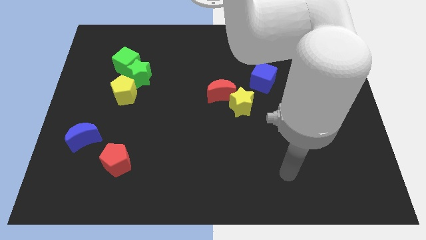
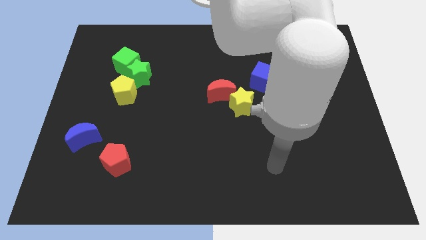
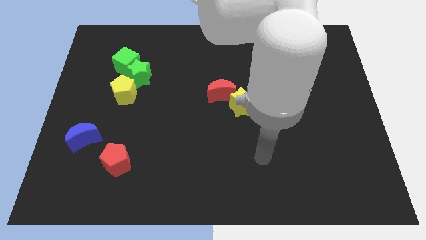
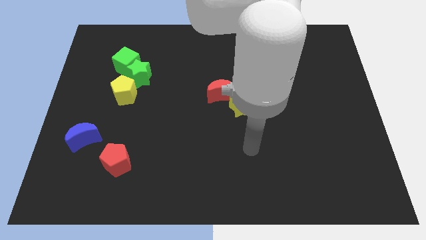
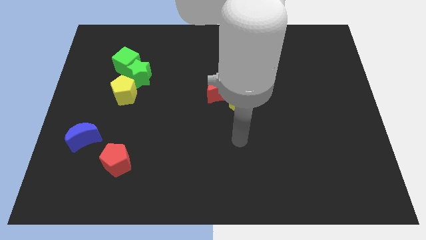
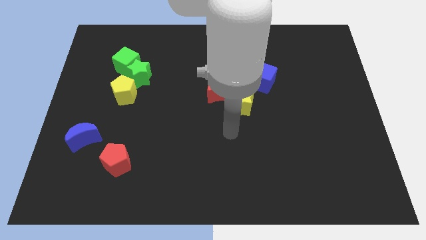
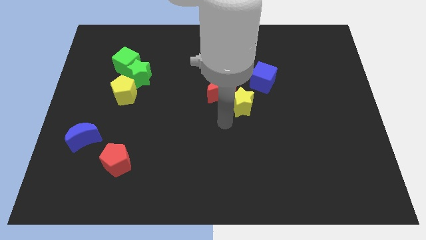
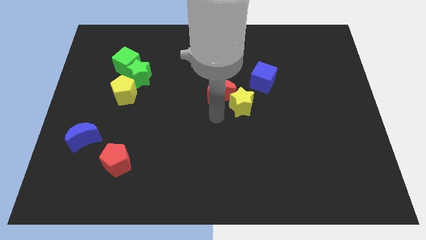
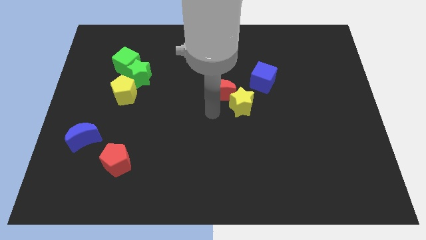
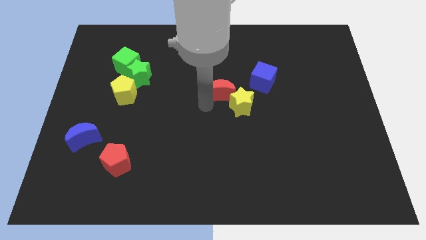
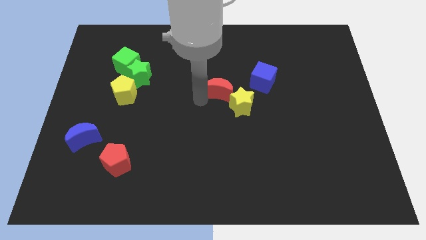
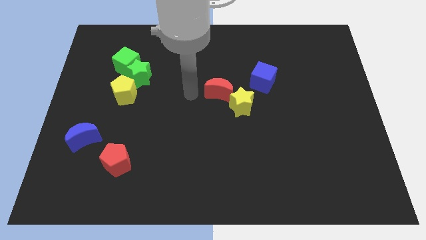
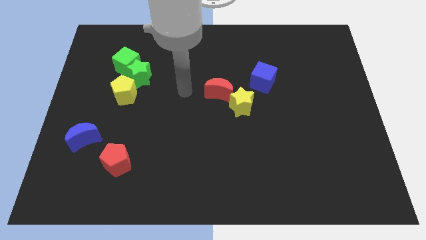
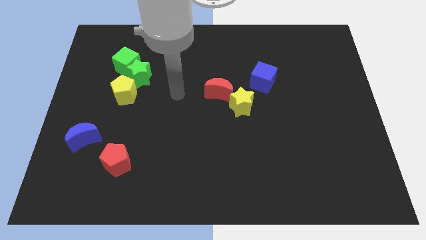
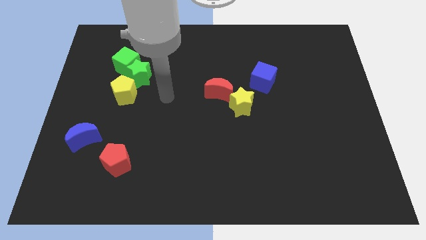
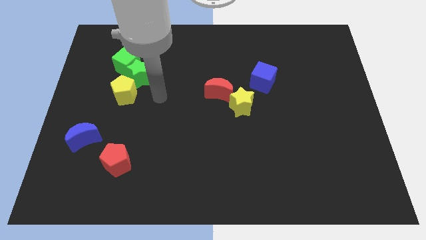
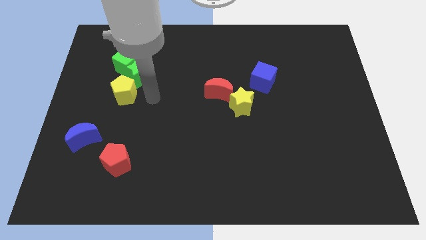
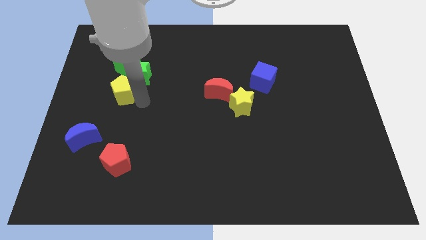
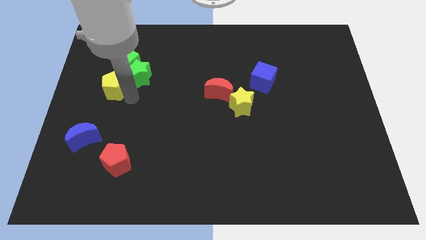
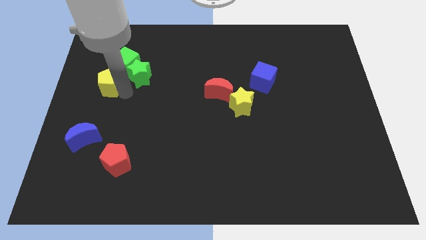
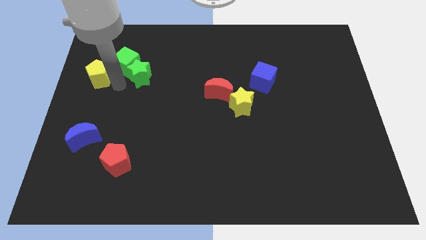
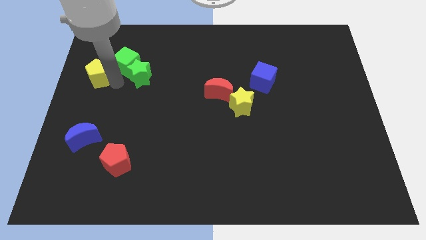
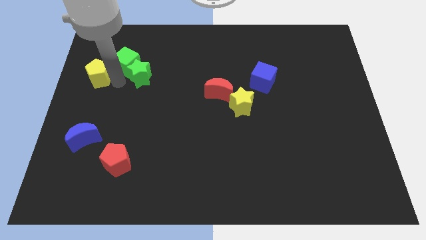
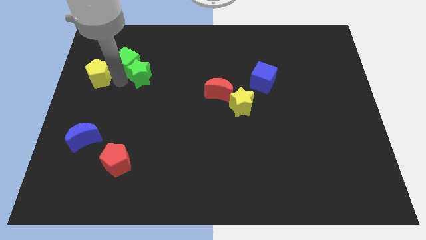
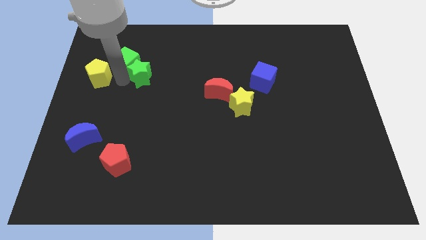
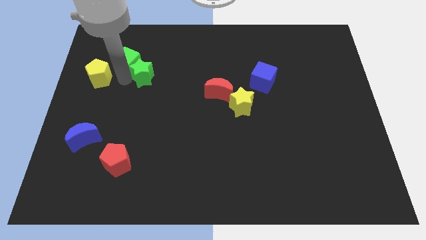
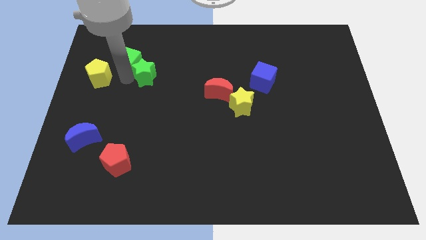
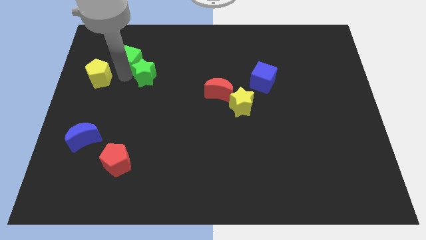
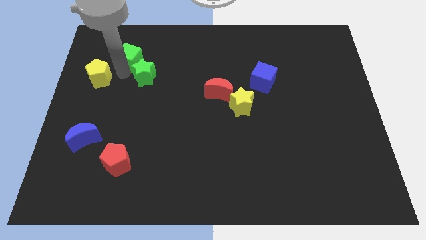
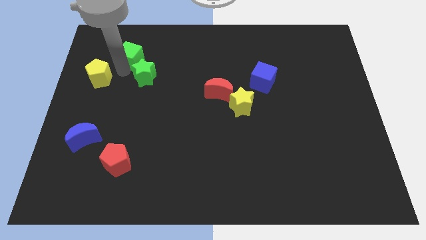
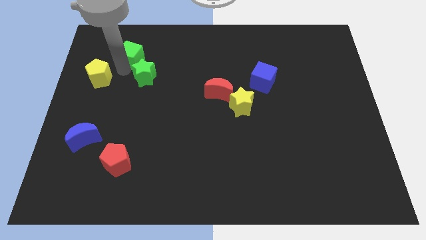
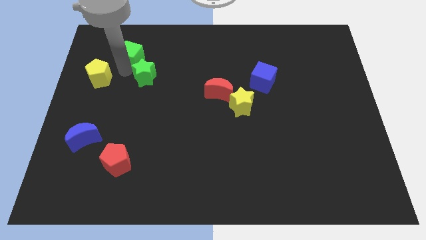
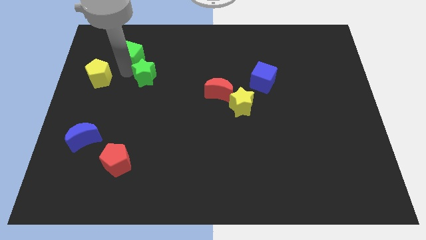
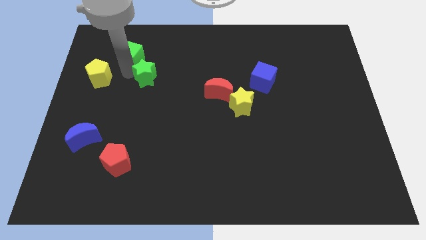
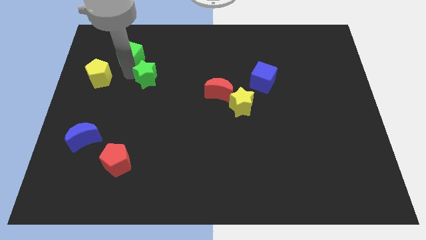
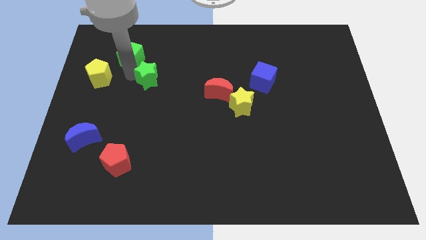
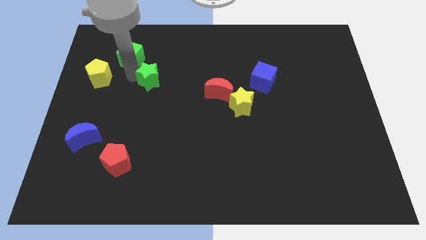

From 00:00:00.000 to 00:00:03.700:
move the green star away from the green cube and yellow pentagon

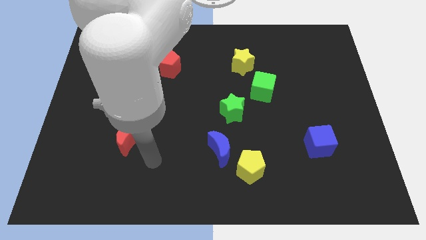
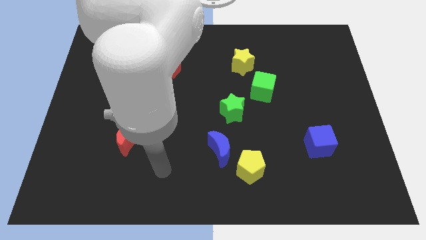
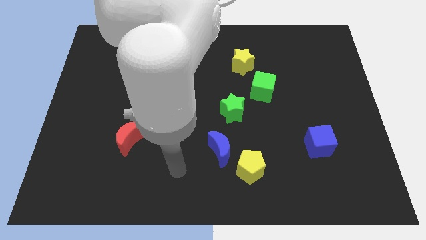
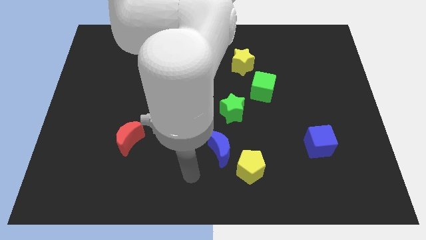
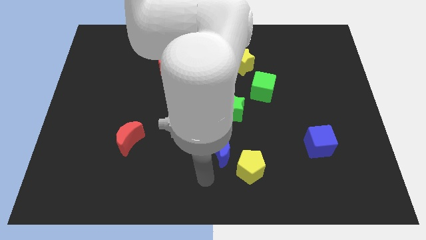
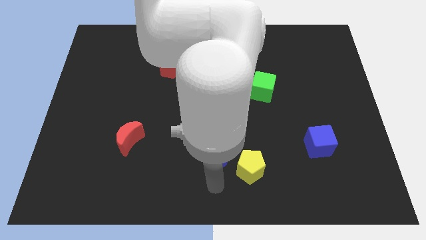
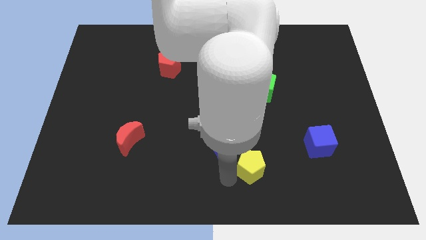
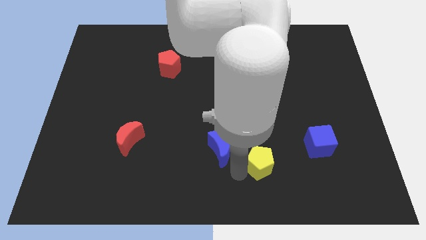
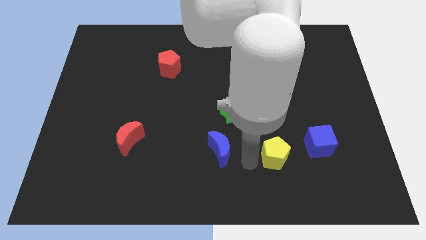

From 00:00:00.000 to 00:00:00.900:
separate the blue moon from the yellow pentagon

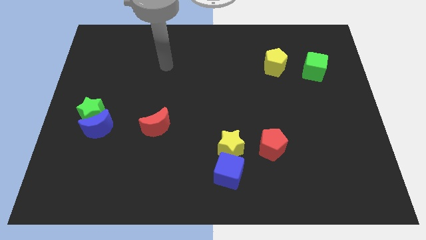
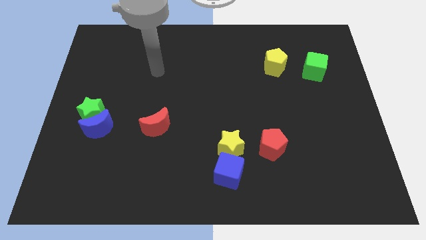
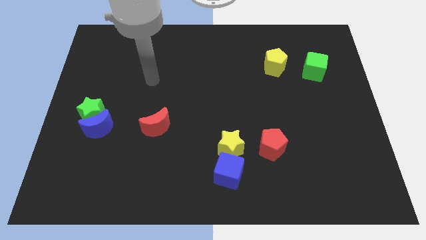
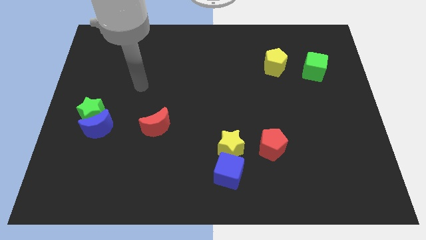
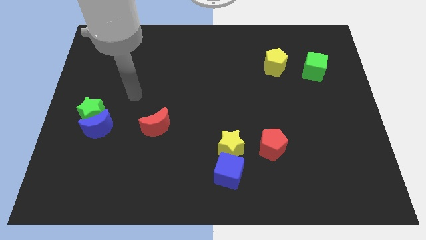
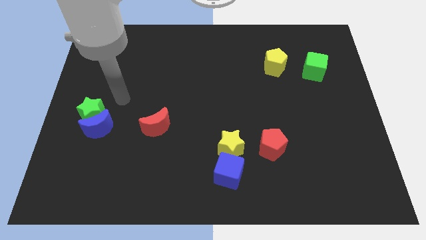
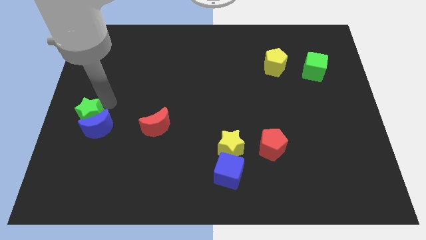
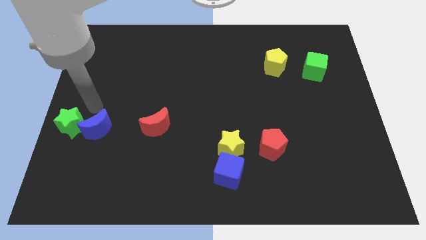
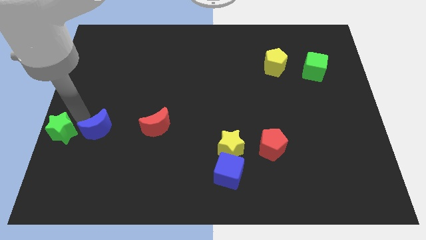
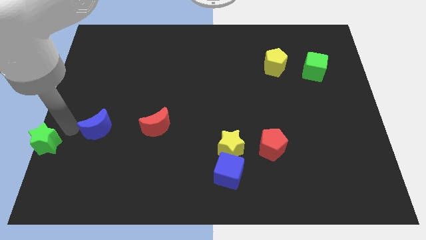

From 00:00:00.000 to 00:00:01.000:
move the blue moon away from the green star

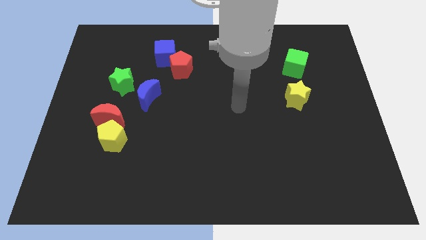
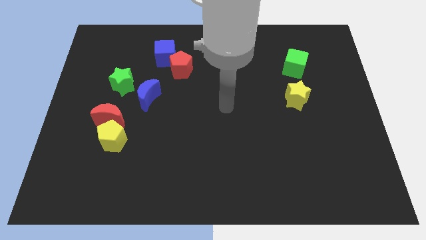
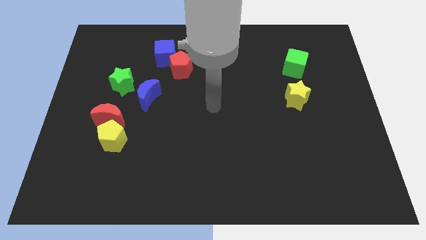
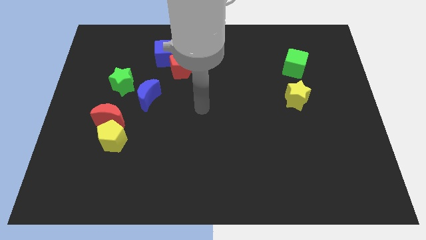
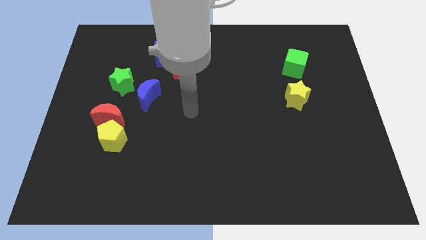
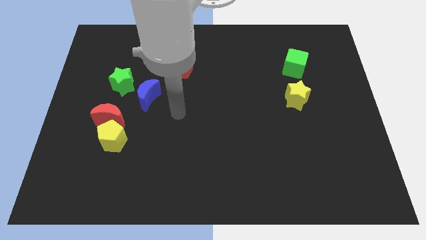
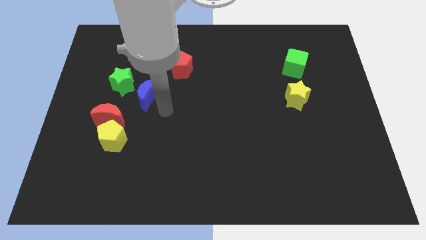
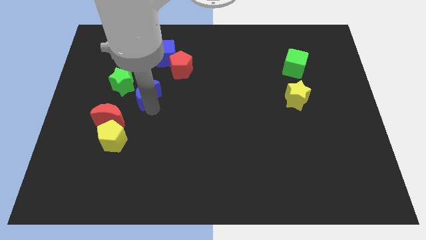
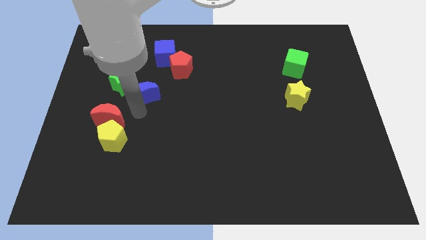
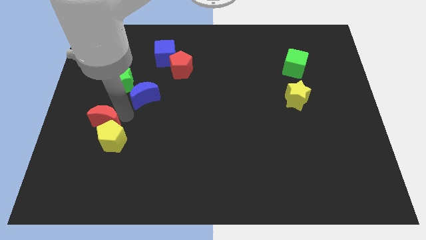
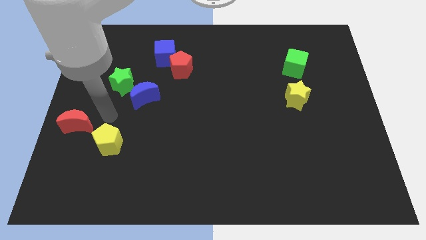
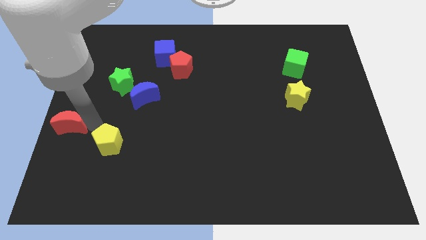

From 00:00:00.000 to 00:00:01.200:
separate the yellow pentagon from the red moon

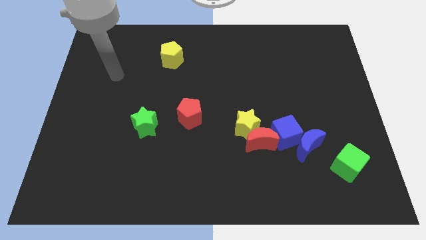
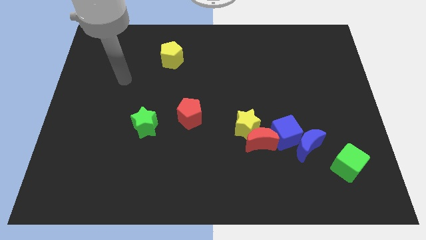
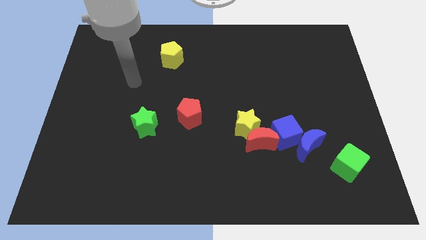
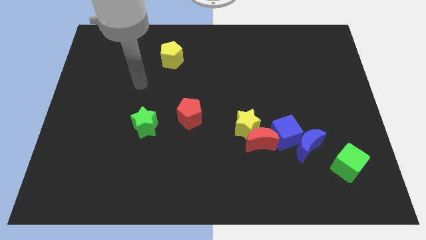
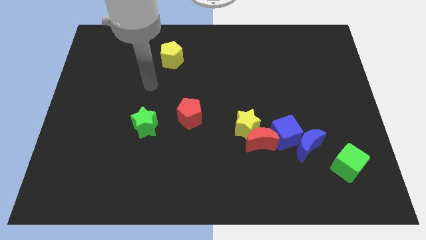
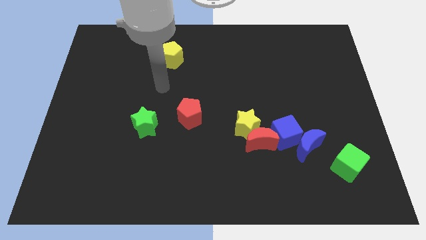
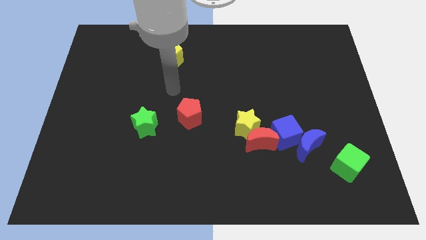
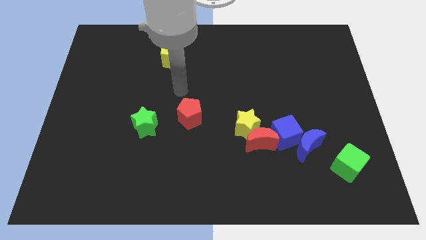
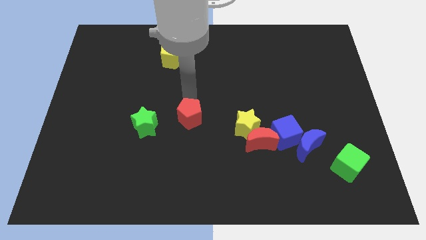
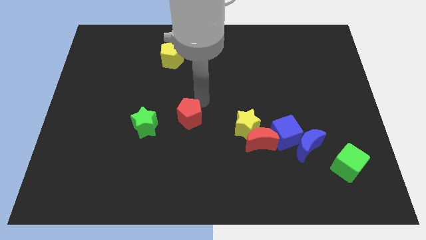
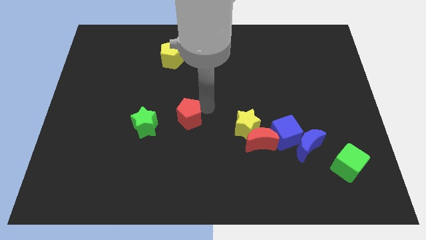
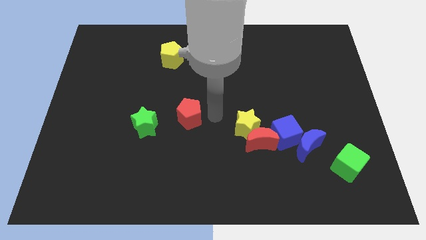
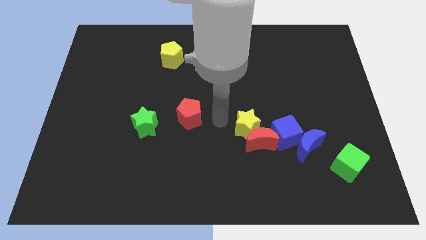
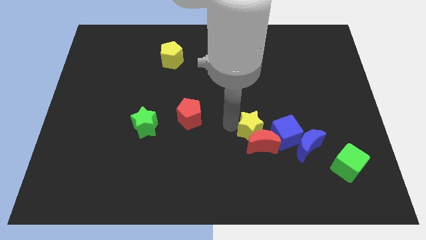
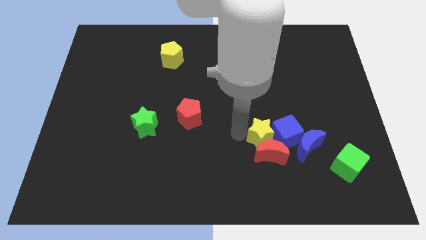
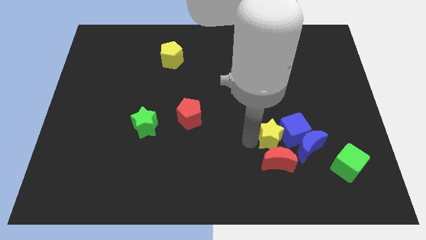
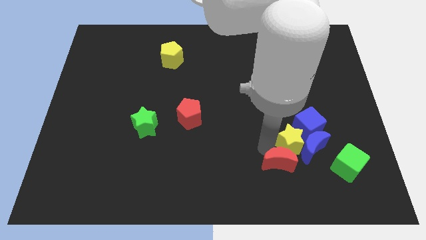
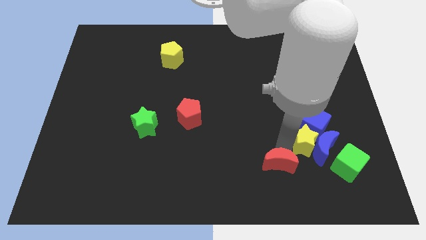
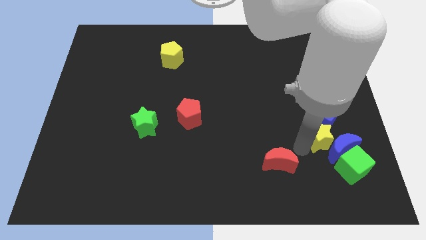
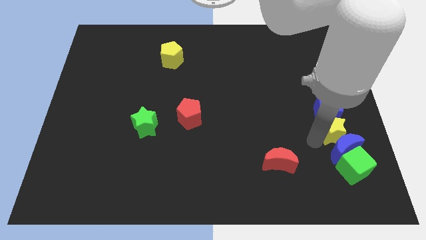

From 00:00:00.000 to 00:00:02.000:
separate the blue cube from the blue moon, red moon, and yellow star

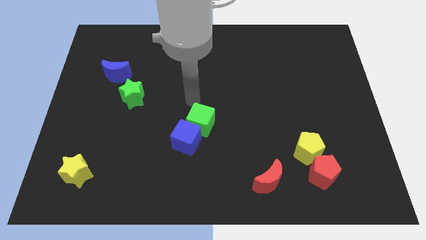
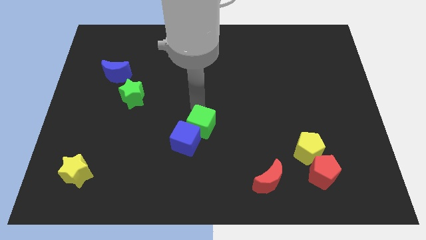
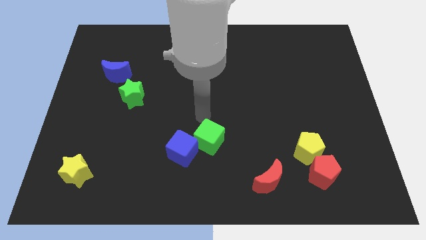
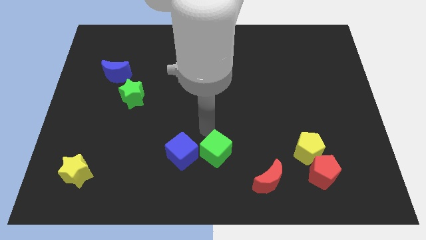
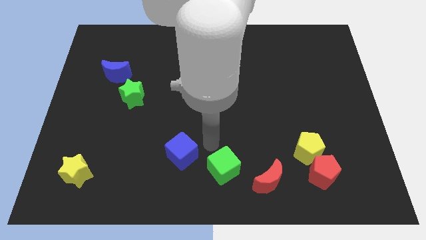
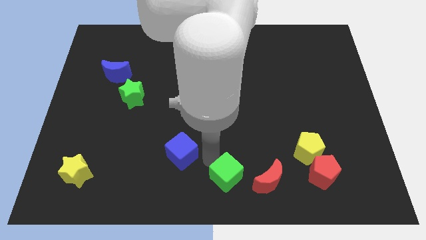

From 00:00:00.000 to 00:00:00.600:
pull the blue cube apart from the green cube
